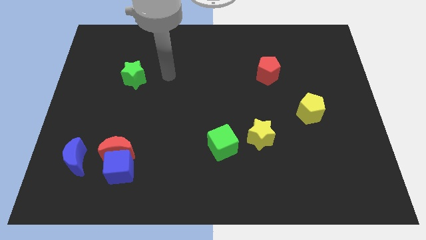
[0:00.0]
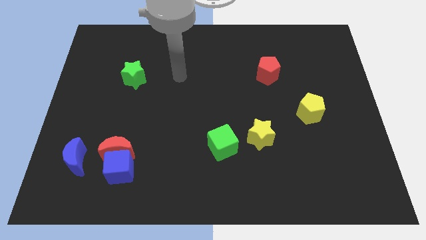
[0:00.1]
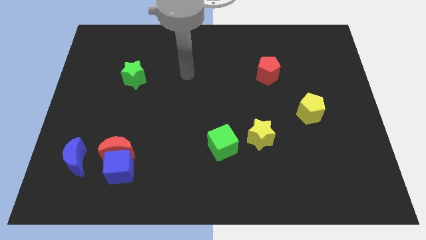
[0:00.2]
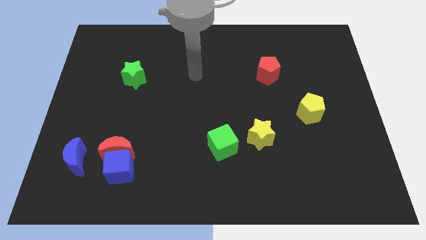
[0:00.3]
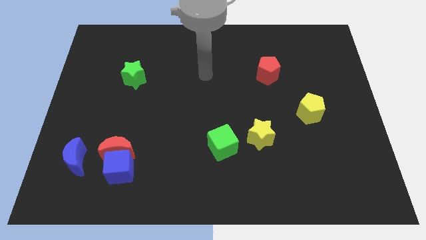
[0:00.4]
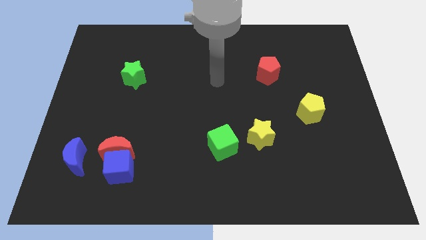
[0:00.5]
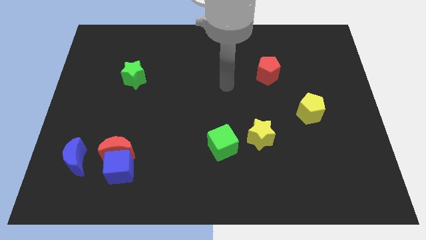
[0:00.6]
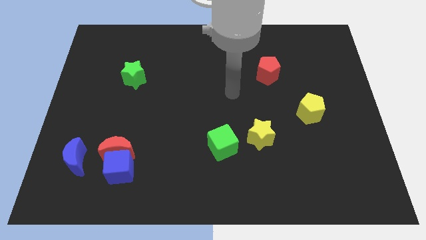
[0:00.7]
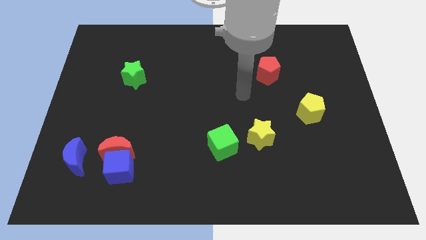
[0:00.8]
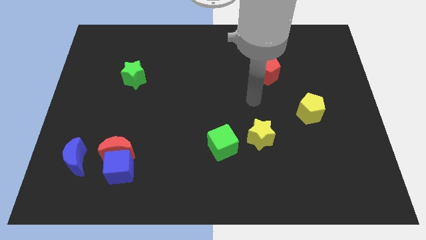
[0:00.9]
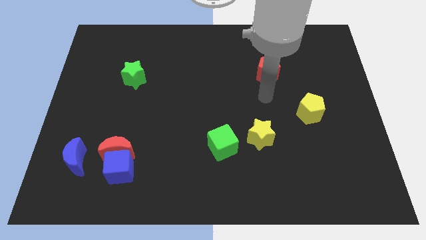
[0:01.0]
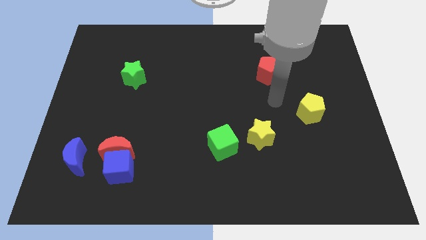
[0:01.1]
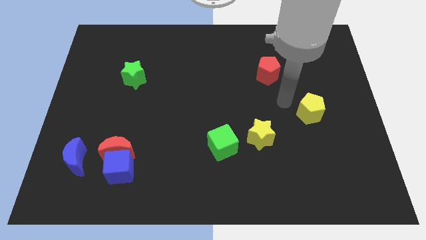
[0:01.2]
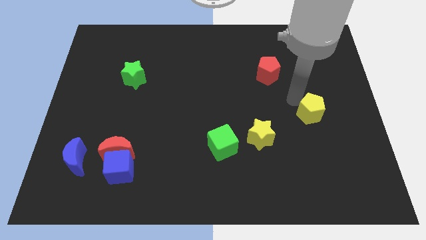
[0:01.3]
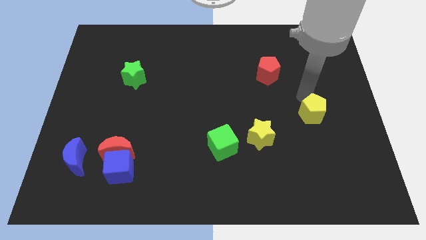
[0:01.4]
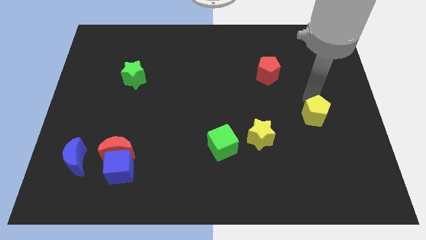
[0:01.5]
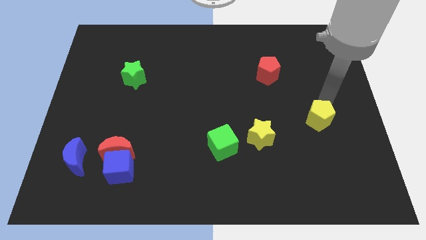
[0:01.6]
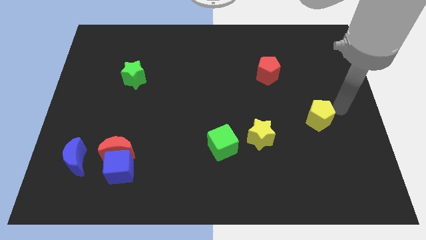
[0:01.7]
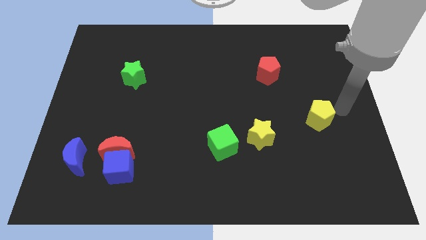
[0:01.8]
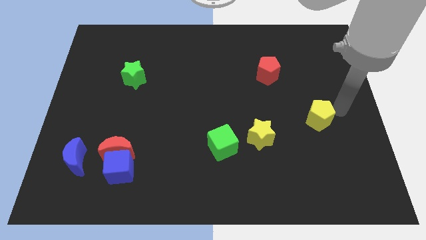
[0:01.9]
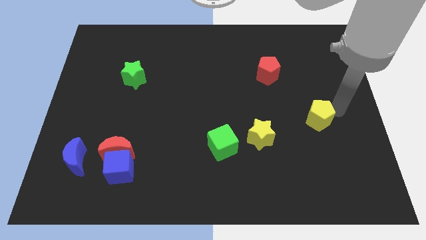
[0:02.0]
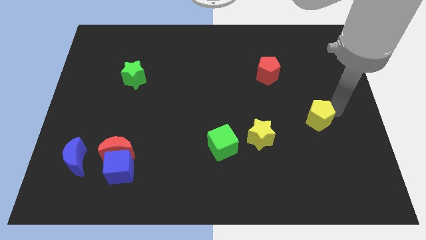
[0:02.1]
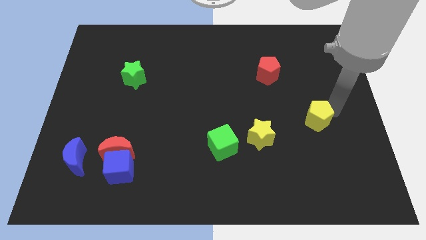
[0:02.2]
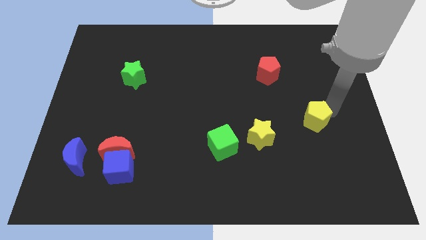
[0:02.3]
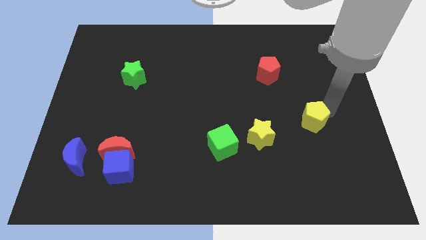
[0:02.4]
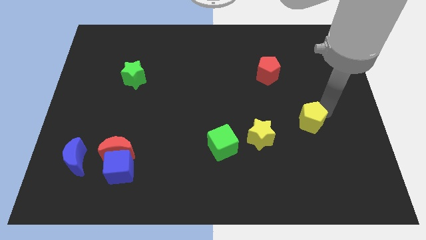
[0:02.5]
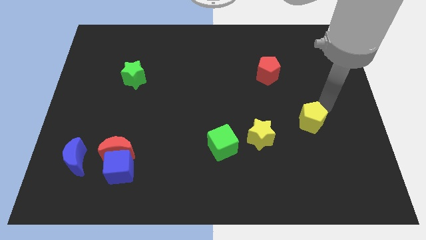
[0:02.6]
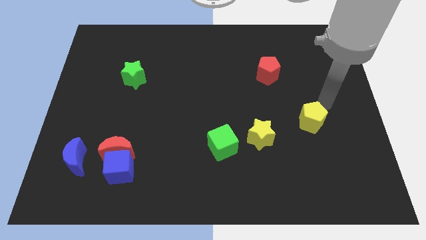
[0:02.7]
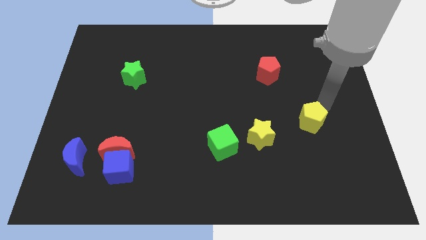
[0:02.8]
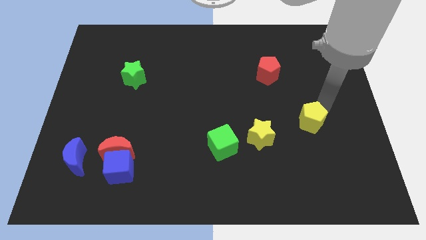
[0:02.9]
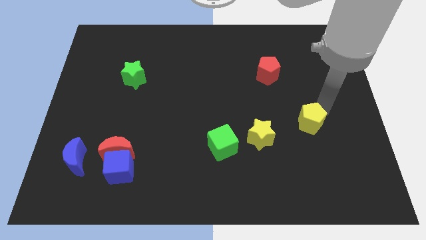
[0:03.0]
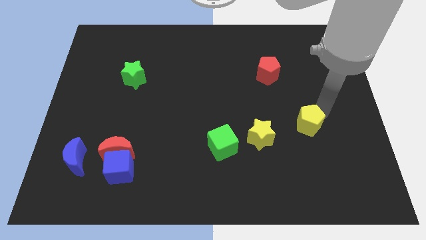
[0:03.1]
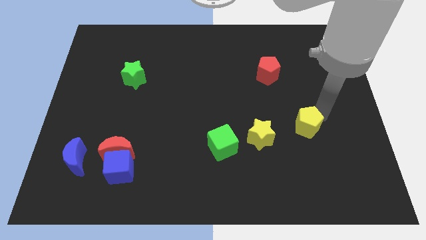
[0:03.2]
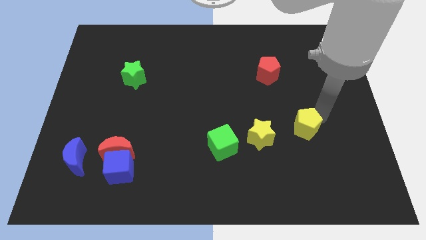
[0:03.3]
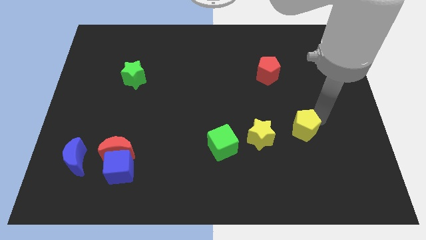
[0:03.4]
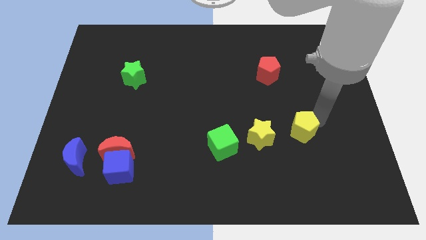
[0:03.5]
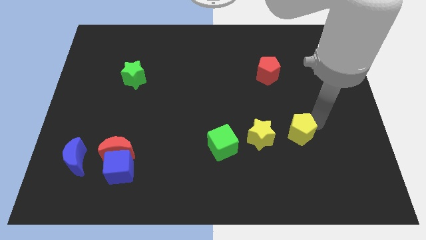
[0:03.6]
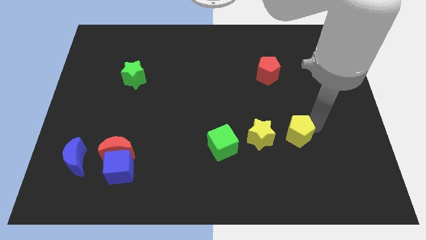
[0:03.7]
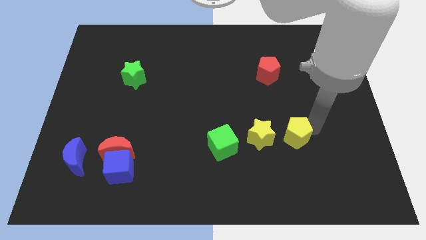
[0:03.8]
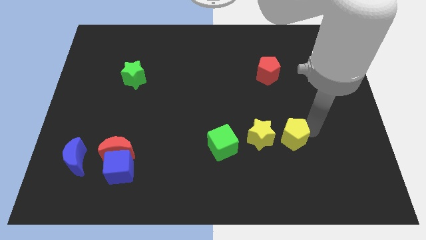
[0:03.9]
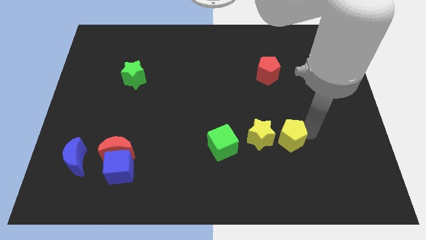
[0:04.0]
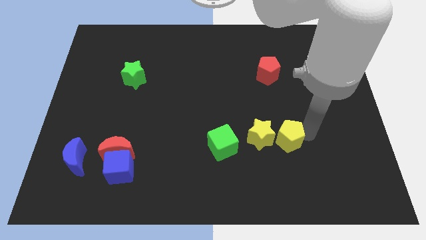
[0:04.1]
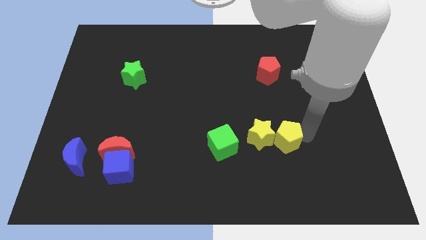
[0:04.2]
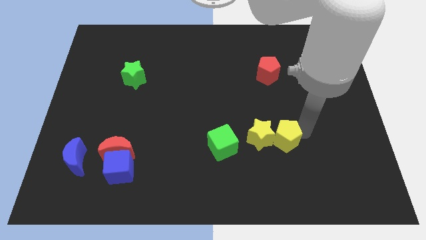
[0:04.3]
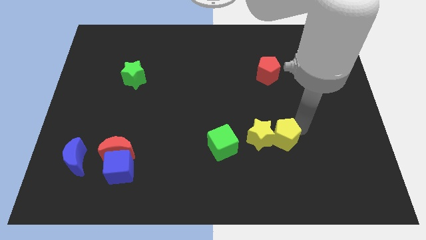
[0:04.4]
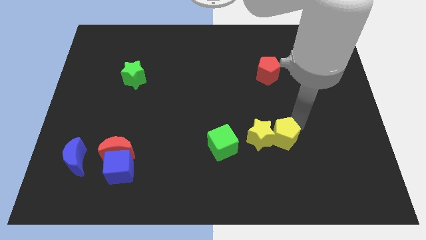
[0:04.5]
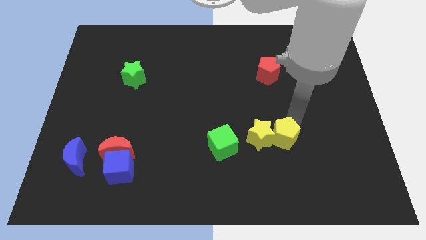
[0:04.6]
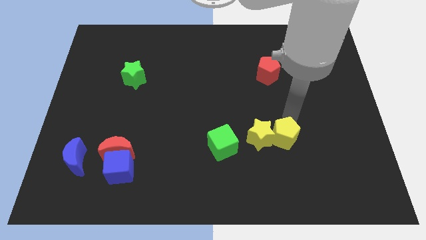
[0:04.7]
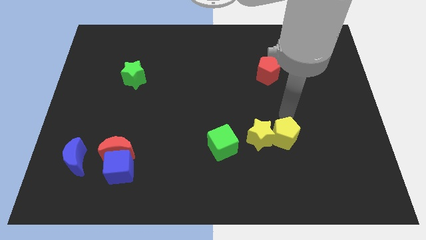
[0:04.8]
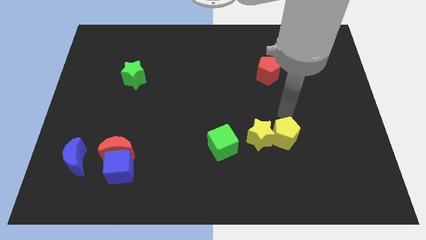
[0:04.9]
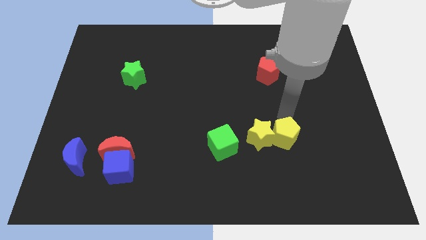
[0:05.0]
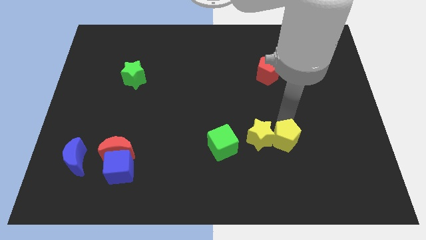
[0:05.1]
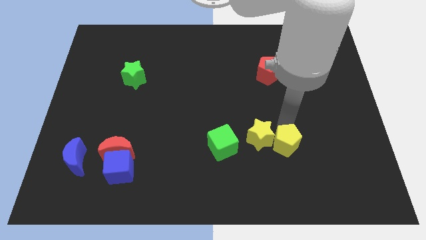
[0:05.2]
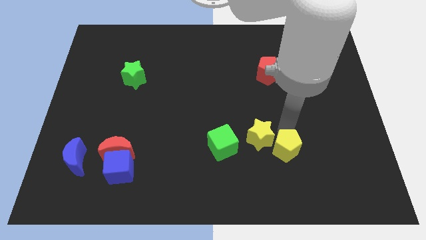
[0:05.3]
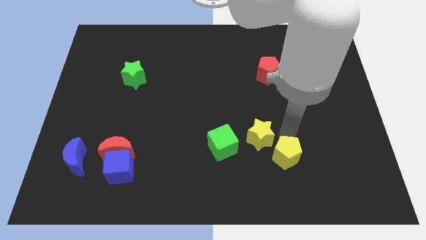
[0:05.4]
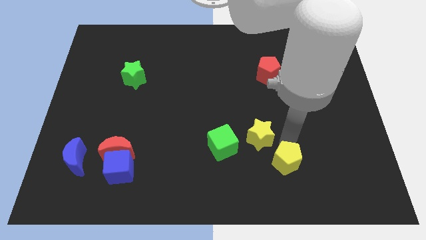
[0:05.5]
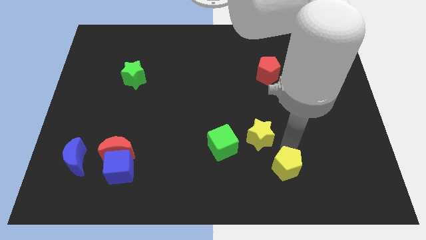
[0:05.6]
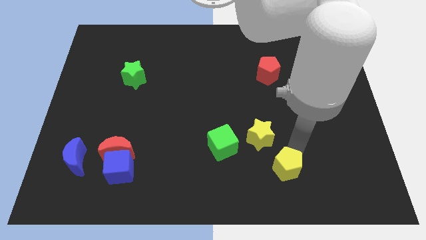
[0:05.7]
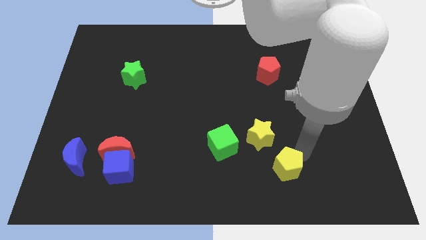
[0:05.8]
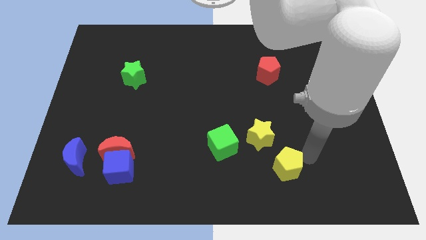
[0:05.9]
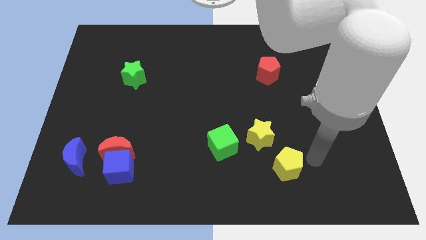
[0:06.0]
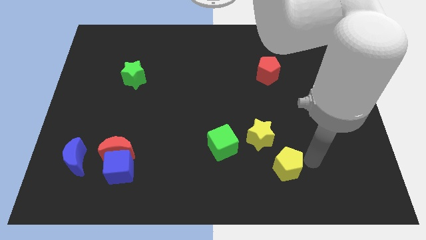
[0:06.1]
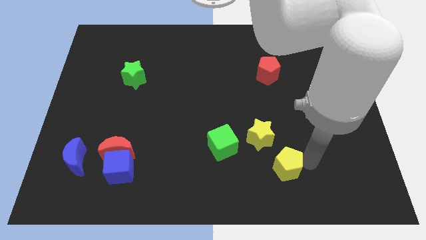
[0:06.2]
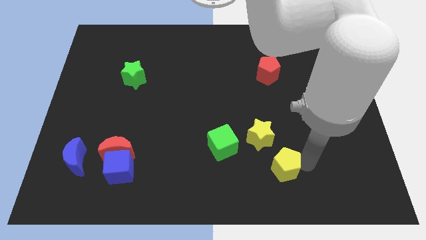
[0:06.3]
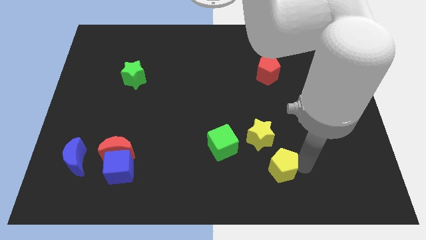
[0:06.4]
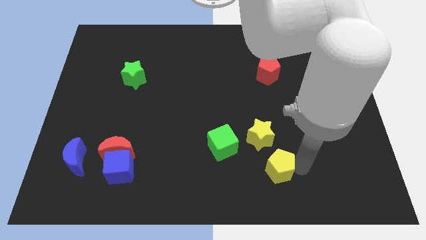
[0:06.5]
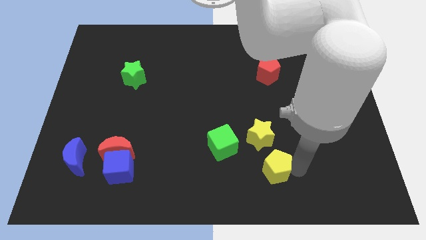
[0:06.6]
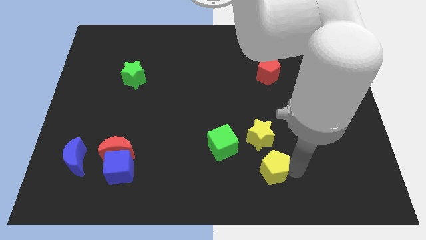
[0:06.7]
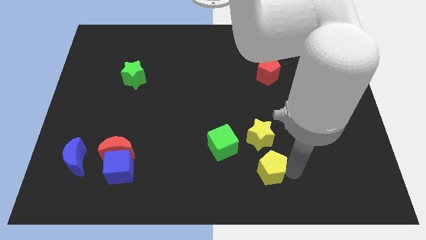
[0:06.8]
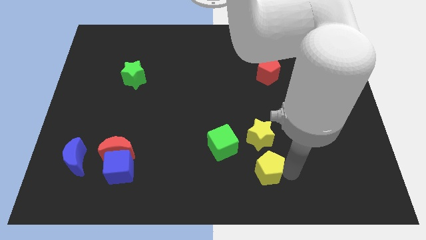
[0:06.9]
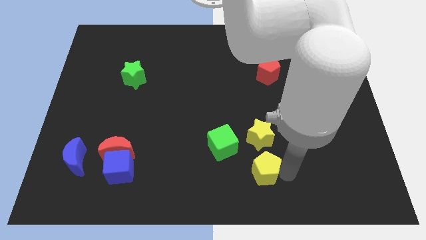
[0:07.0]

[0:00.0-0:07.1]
move the yellow pentagon to the bottom
